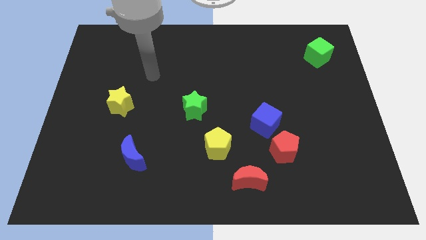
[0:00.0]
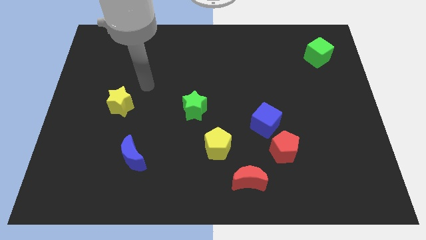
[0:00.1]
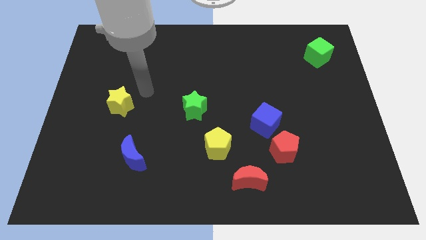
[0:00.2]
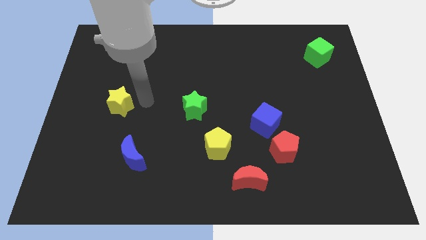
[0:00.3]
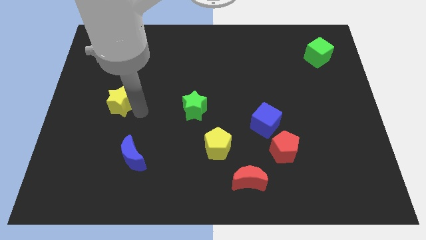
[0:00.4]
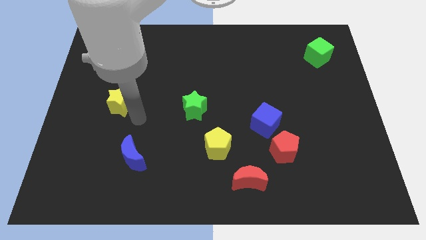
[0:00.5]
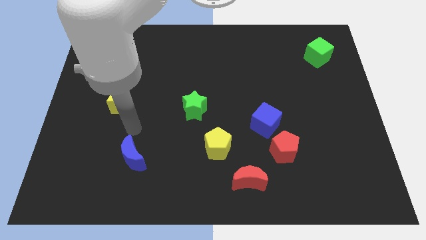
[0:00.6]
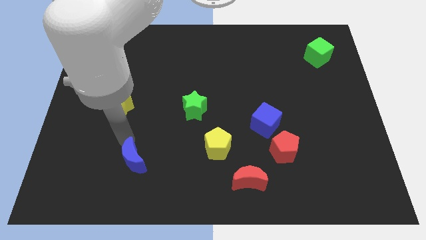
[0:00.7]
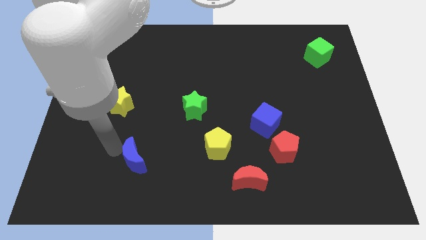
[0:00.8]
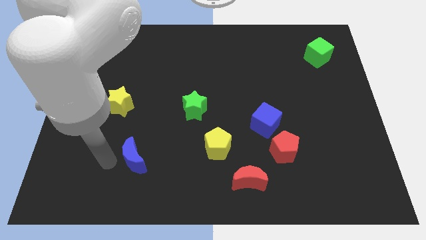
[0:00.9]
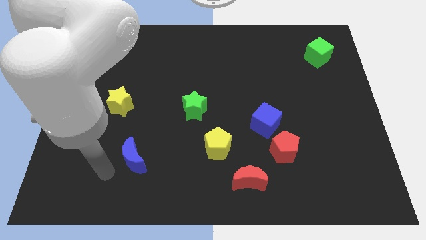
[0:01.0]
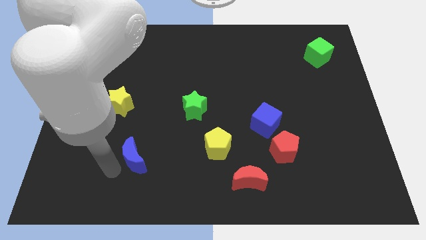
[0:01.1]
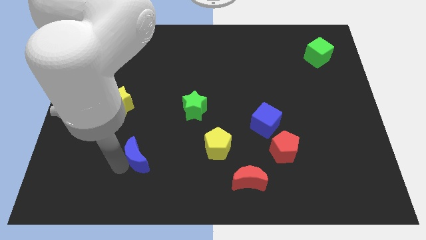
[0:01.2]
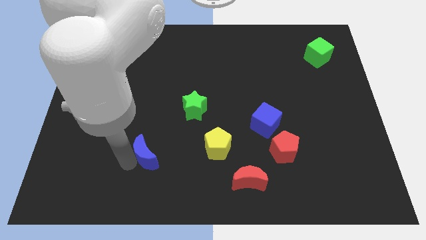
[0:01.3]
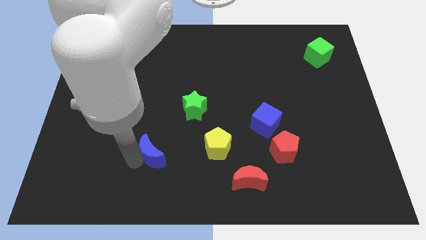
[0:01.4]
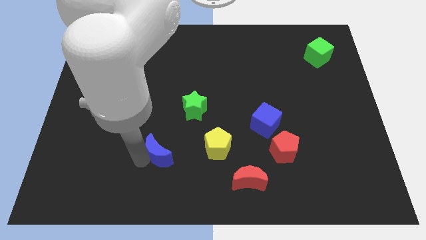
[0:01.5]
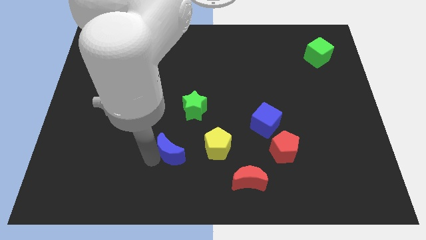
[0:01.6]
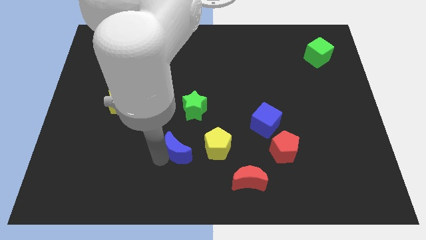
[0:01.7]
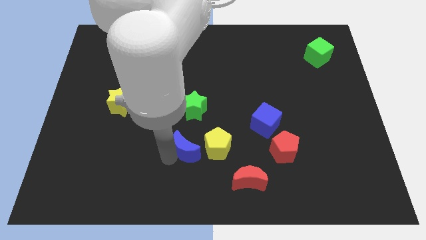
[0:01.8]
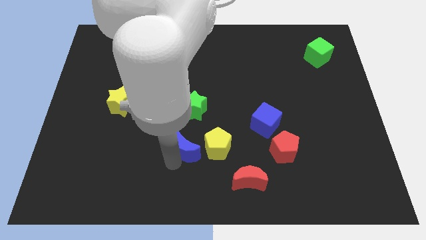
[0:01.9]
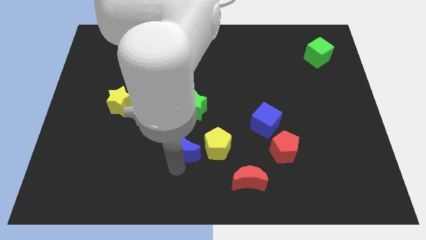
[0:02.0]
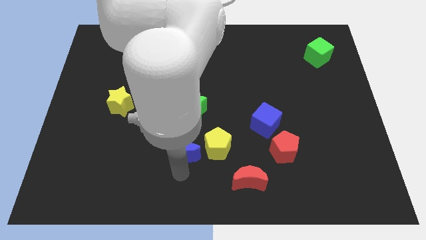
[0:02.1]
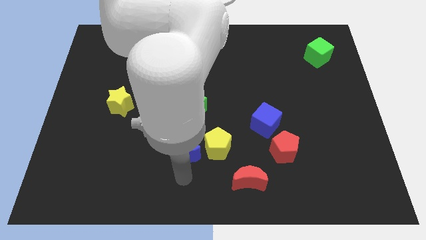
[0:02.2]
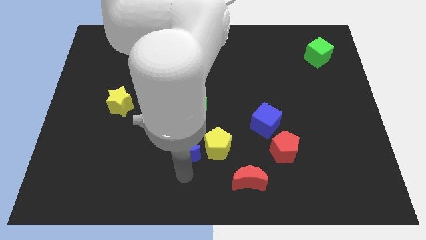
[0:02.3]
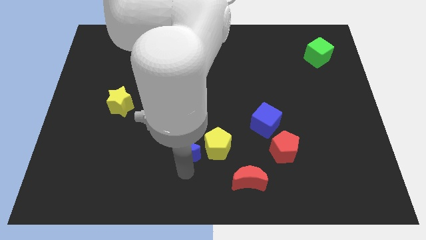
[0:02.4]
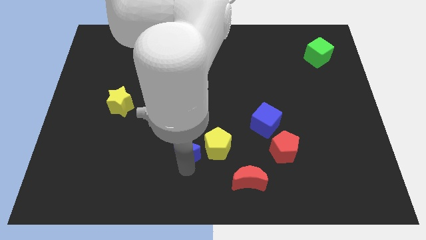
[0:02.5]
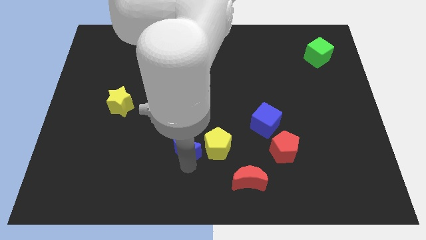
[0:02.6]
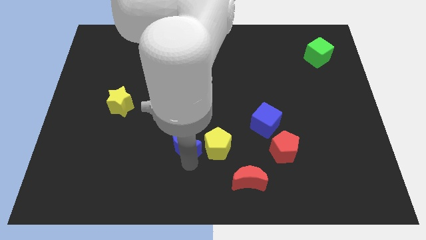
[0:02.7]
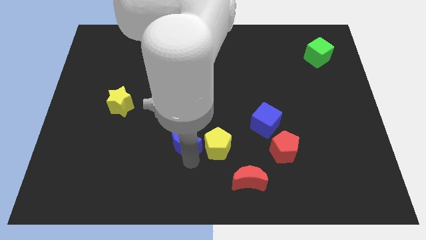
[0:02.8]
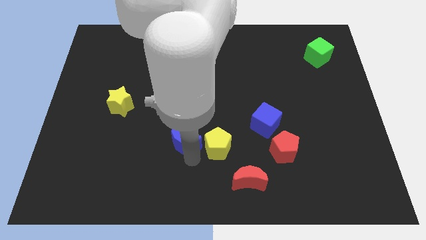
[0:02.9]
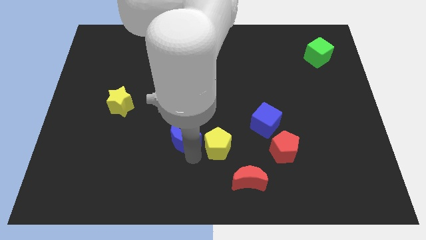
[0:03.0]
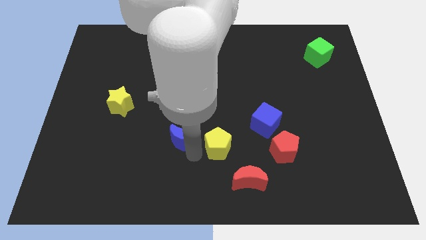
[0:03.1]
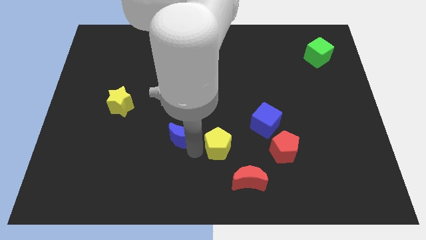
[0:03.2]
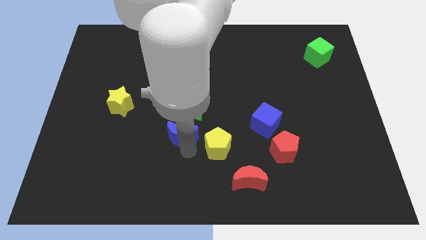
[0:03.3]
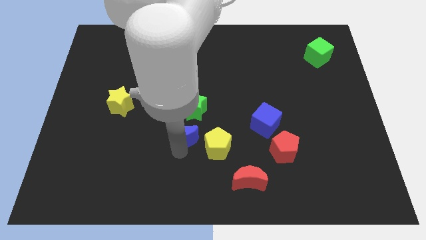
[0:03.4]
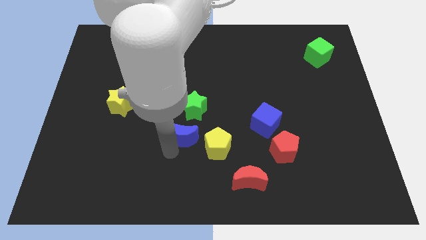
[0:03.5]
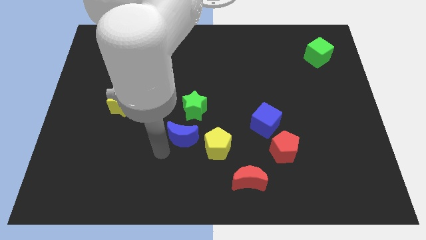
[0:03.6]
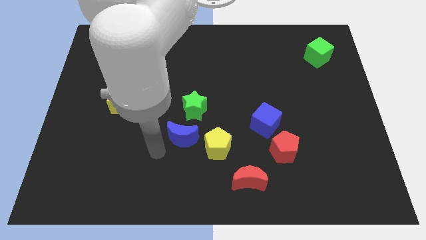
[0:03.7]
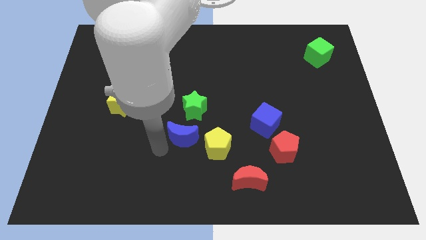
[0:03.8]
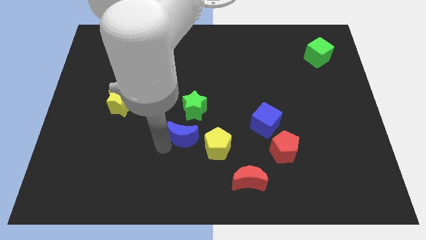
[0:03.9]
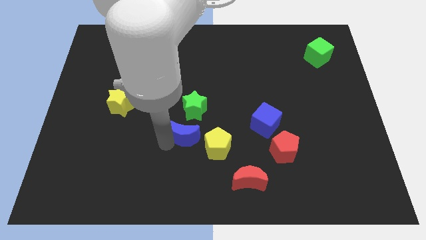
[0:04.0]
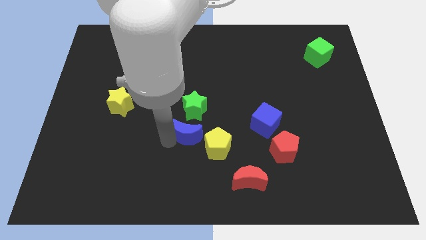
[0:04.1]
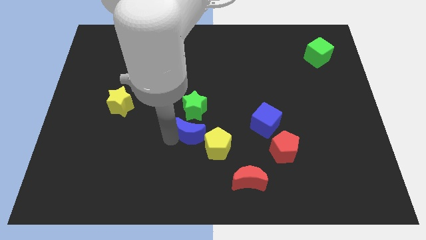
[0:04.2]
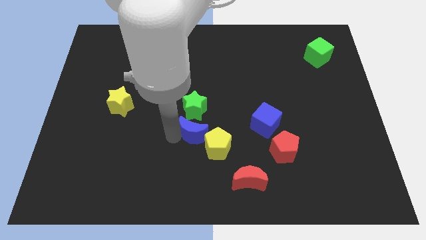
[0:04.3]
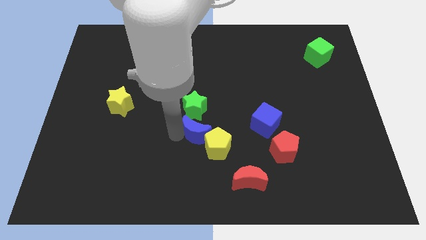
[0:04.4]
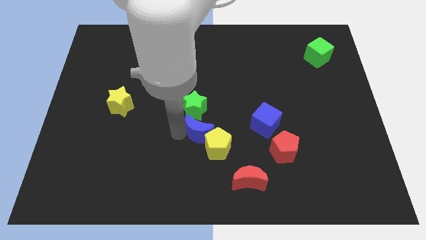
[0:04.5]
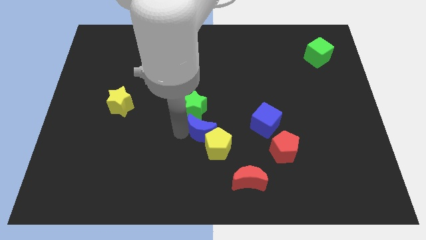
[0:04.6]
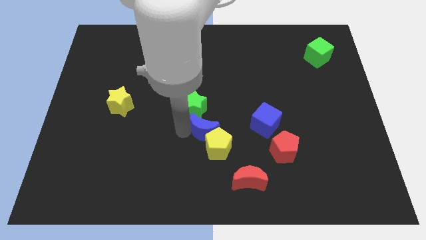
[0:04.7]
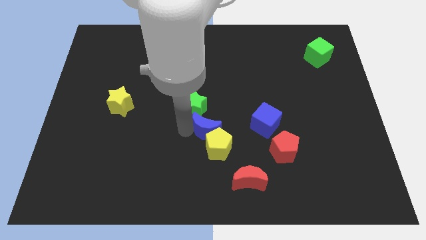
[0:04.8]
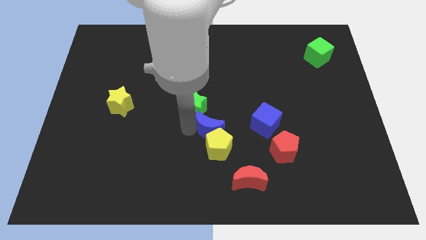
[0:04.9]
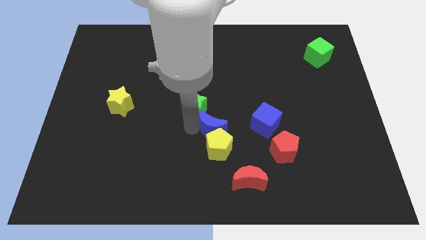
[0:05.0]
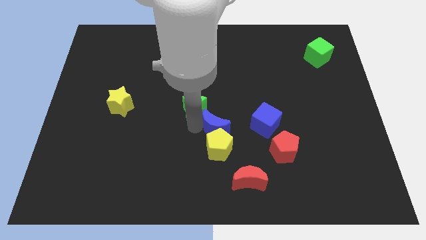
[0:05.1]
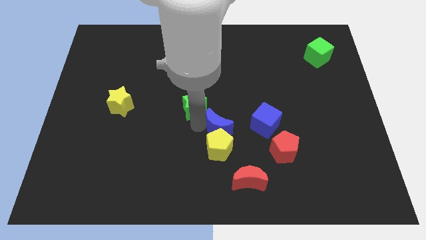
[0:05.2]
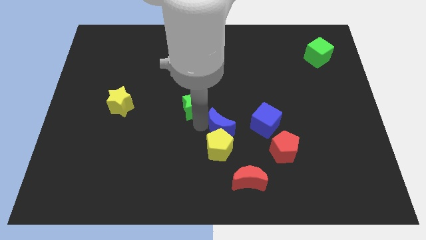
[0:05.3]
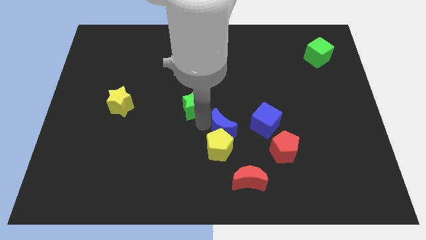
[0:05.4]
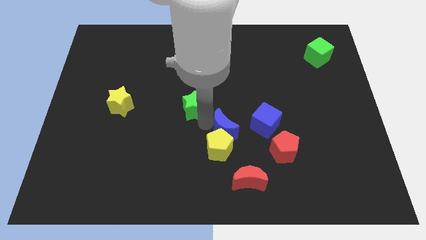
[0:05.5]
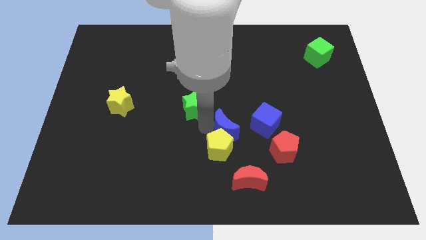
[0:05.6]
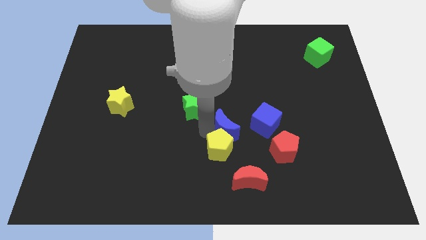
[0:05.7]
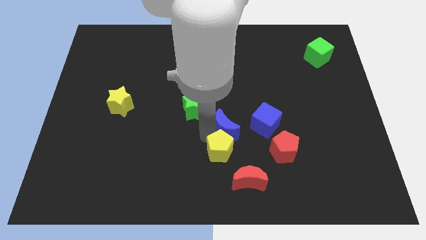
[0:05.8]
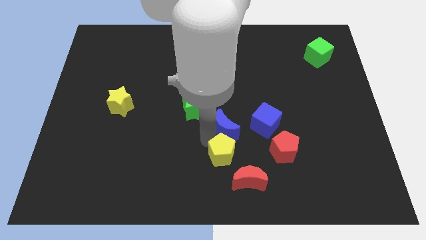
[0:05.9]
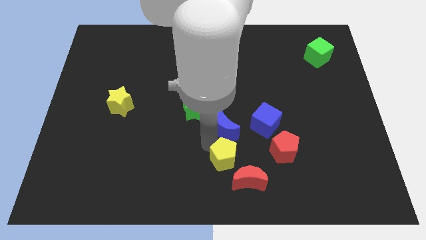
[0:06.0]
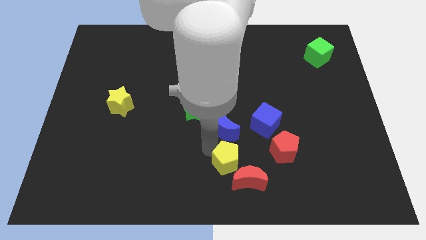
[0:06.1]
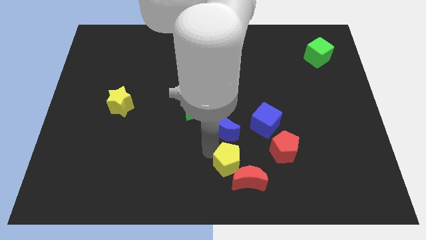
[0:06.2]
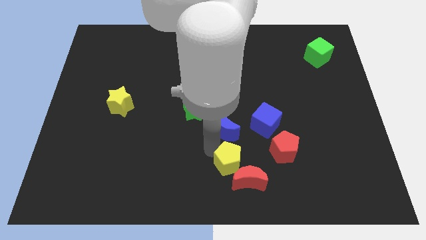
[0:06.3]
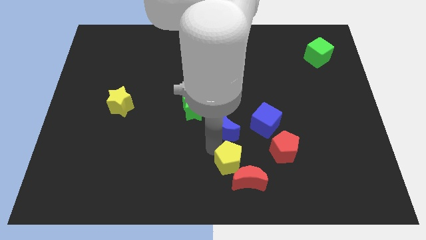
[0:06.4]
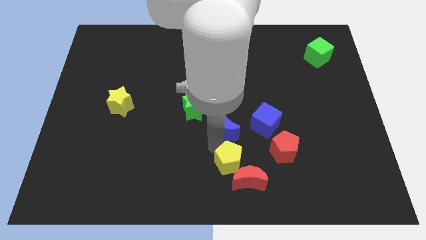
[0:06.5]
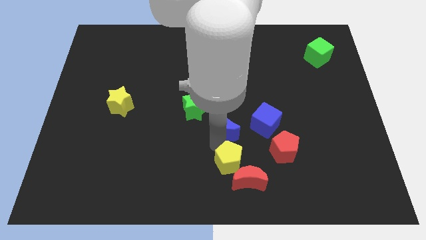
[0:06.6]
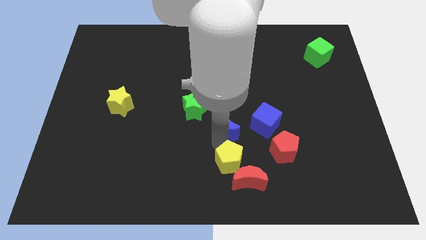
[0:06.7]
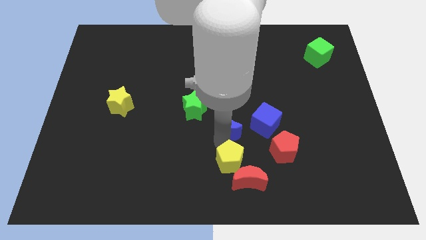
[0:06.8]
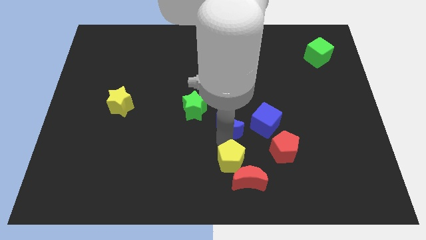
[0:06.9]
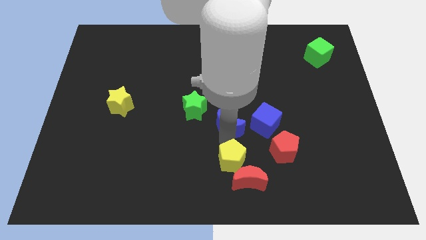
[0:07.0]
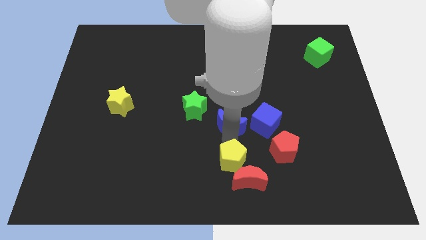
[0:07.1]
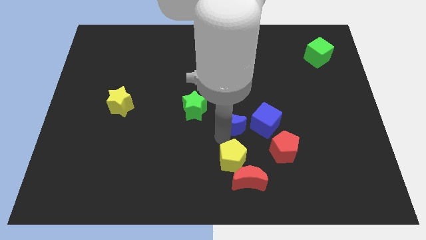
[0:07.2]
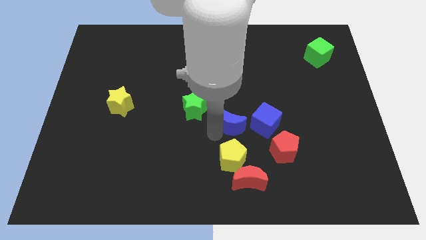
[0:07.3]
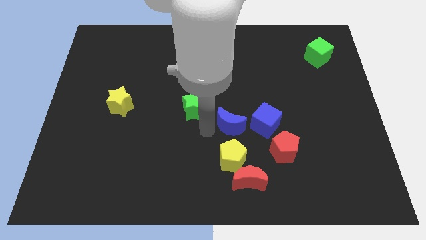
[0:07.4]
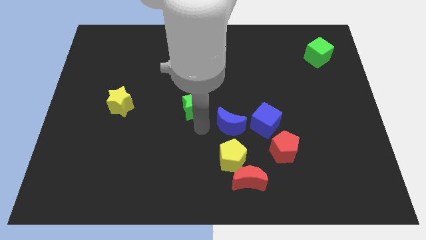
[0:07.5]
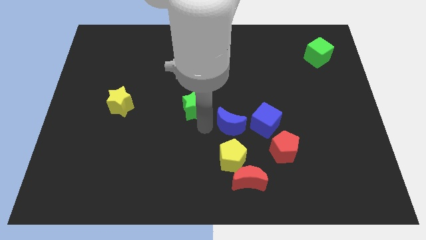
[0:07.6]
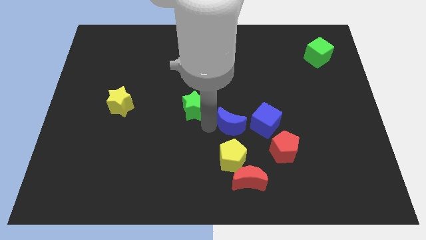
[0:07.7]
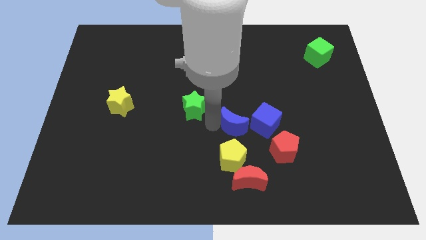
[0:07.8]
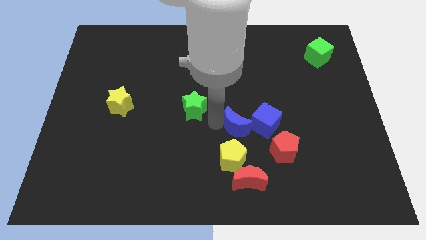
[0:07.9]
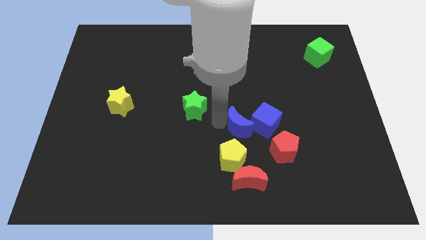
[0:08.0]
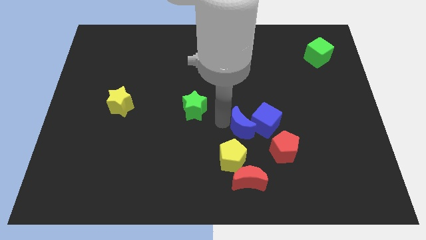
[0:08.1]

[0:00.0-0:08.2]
slide the blue moon towards the blue cube
